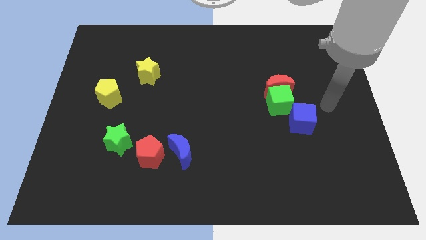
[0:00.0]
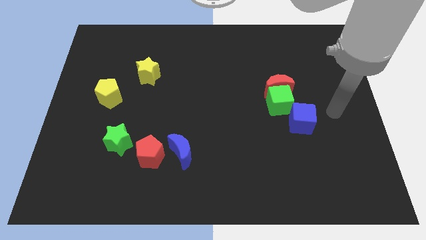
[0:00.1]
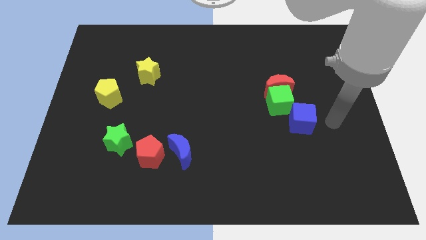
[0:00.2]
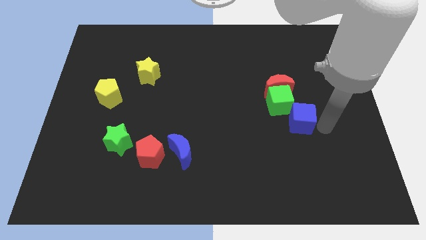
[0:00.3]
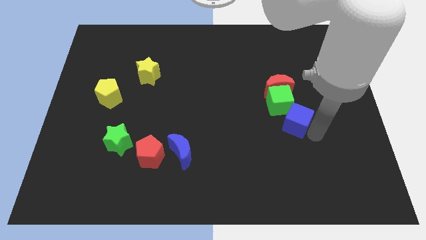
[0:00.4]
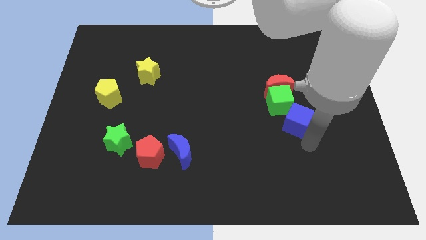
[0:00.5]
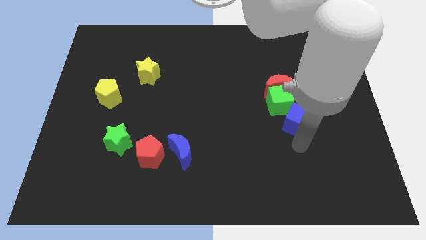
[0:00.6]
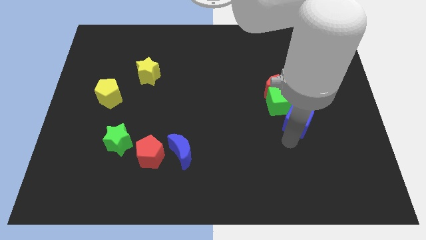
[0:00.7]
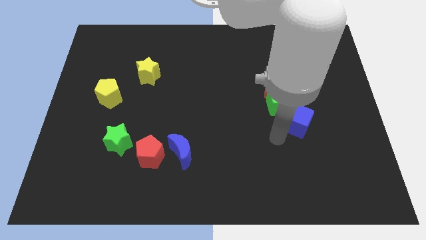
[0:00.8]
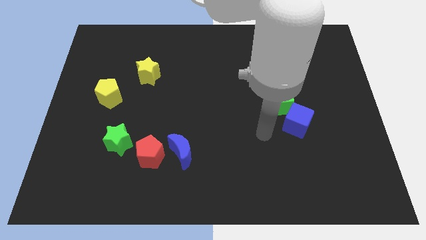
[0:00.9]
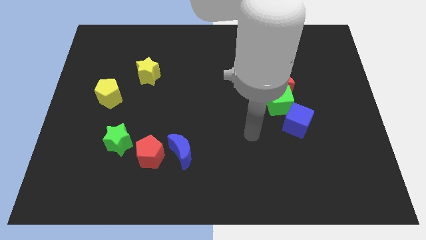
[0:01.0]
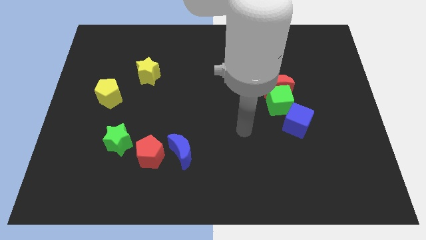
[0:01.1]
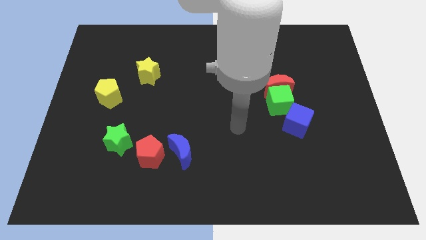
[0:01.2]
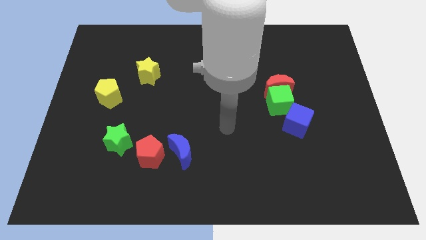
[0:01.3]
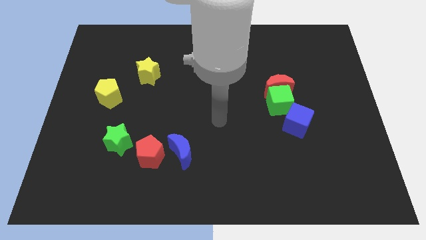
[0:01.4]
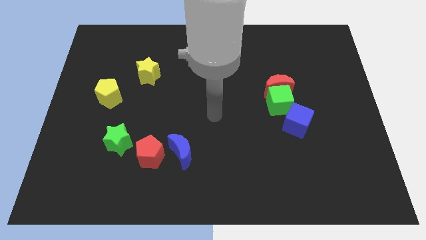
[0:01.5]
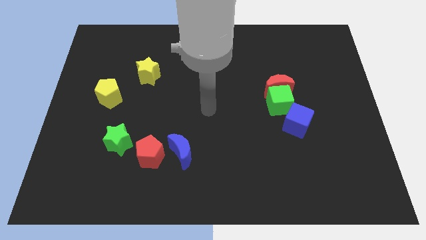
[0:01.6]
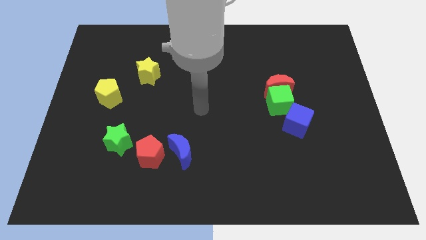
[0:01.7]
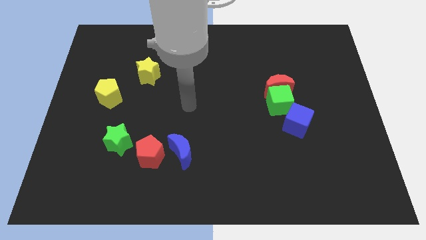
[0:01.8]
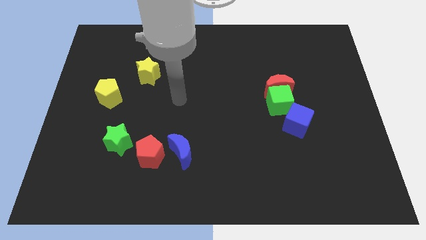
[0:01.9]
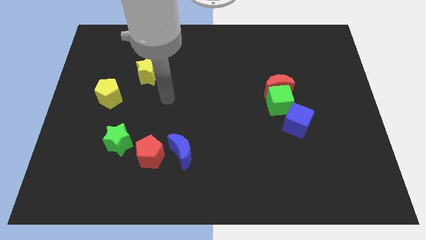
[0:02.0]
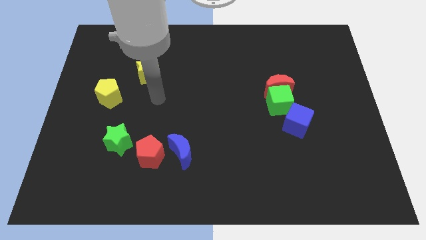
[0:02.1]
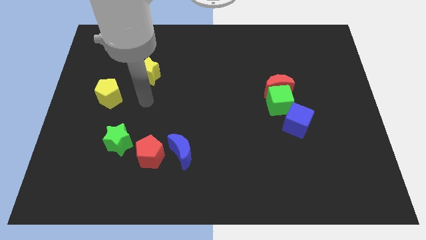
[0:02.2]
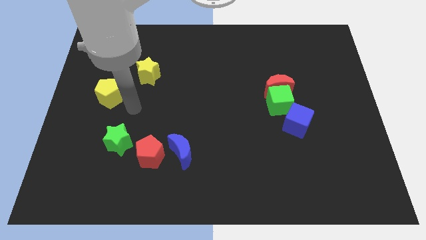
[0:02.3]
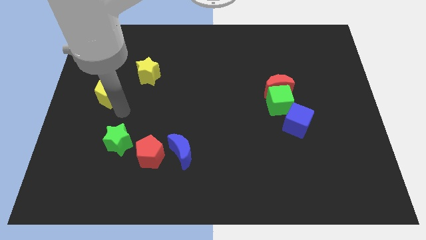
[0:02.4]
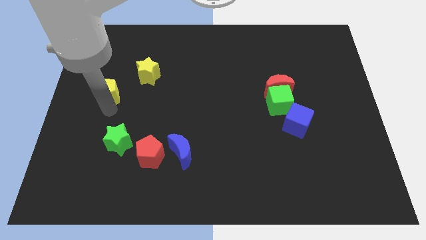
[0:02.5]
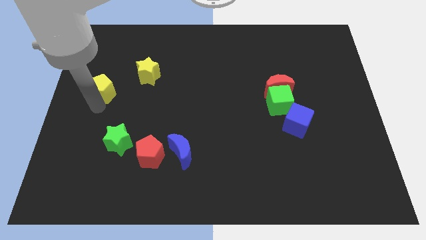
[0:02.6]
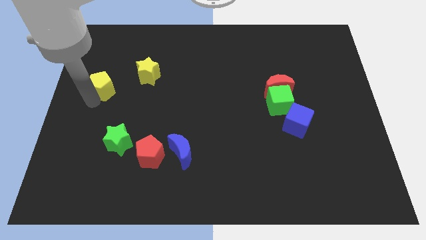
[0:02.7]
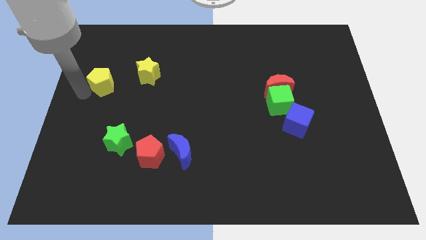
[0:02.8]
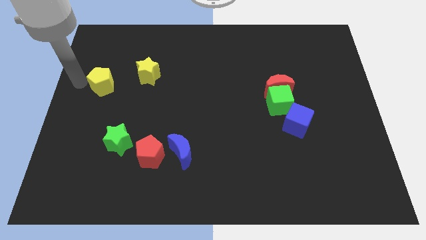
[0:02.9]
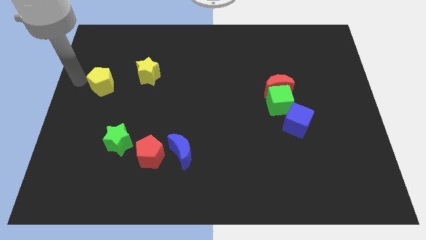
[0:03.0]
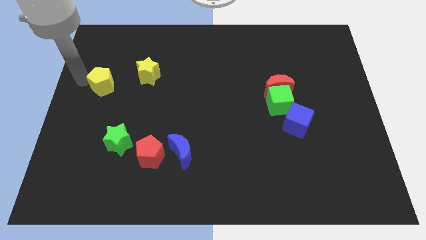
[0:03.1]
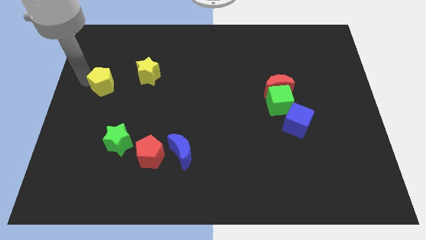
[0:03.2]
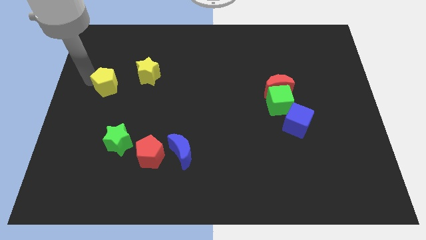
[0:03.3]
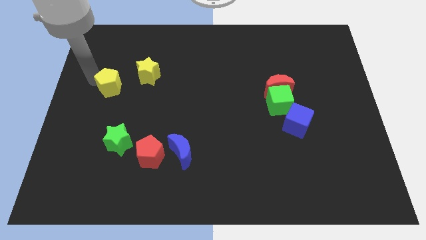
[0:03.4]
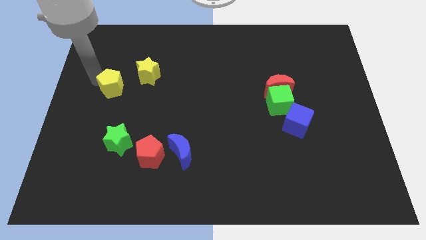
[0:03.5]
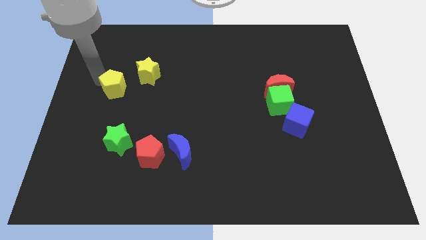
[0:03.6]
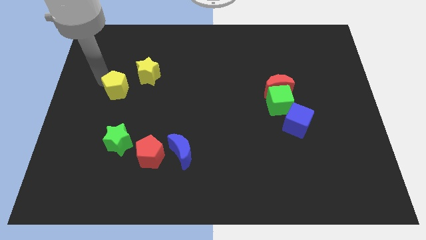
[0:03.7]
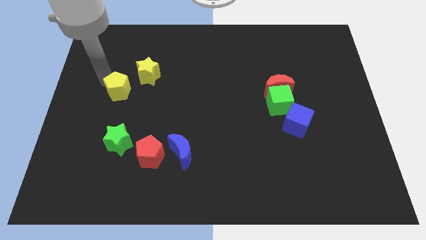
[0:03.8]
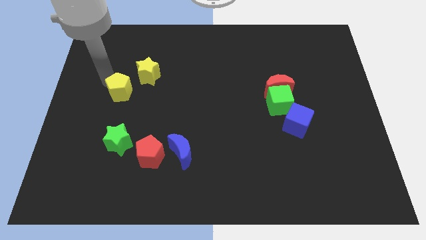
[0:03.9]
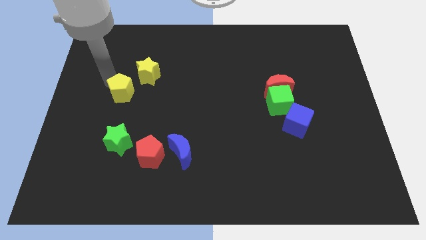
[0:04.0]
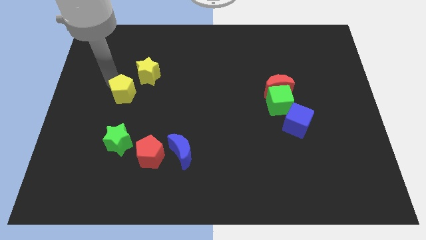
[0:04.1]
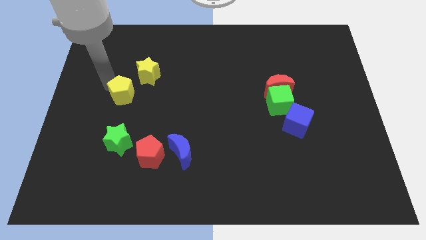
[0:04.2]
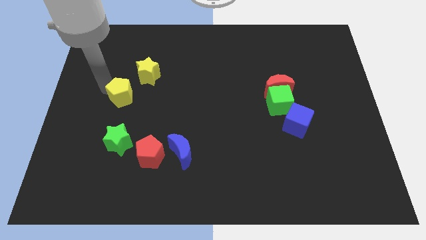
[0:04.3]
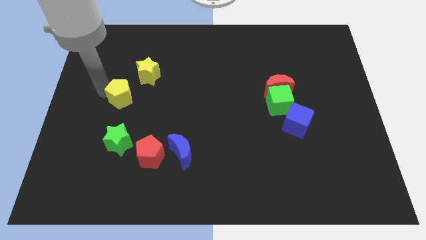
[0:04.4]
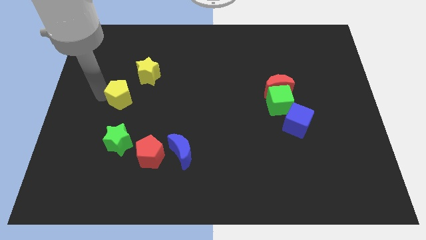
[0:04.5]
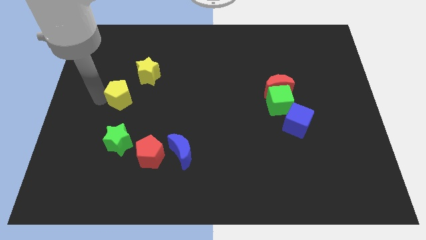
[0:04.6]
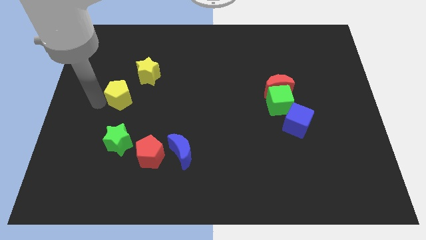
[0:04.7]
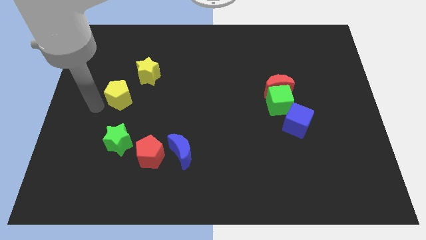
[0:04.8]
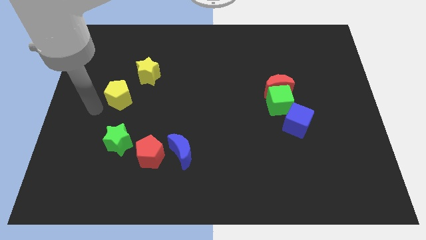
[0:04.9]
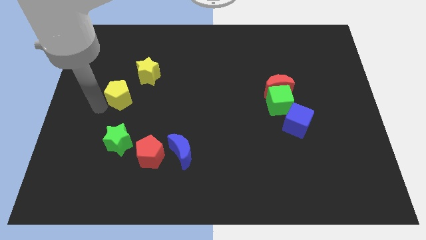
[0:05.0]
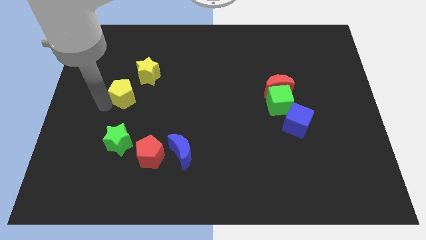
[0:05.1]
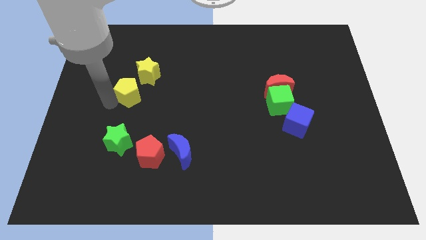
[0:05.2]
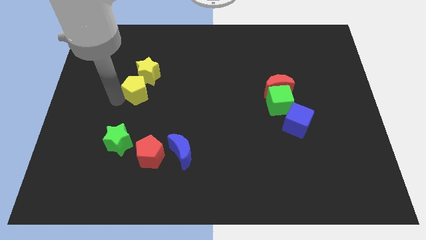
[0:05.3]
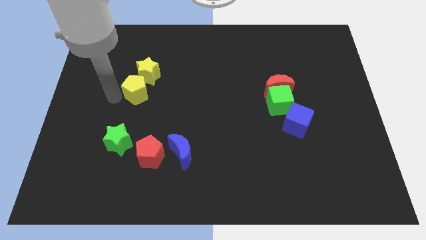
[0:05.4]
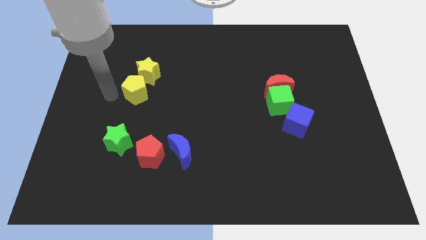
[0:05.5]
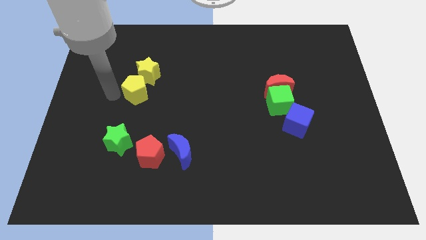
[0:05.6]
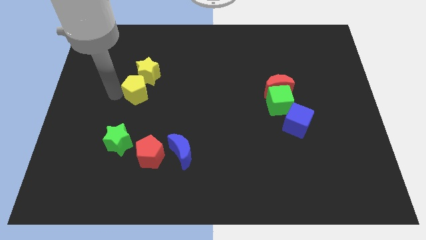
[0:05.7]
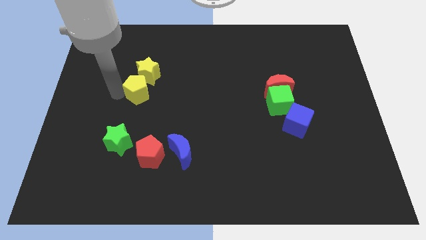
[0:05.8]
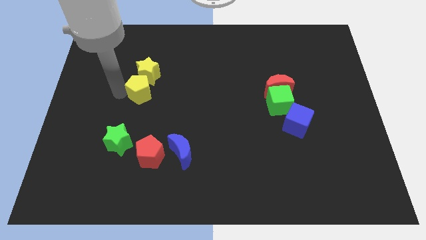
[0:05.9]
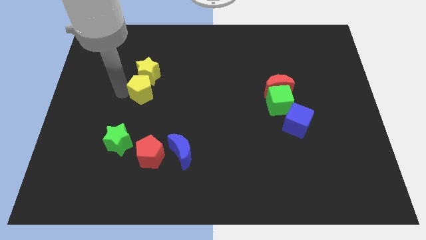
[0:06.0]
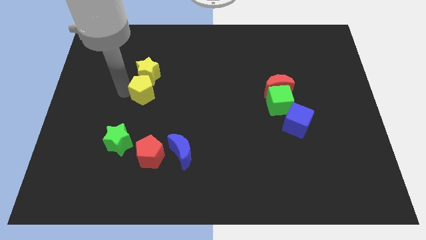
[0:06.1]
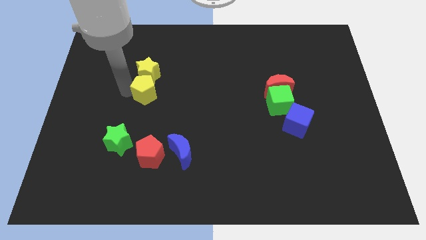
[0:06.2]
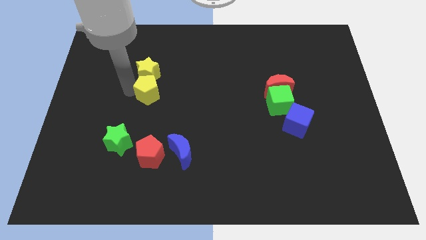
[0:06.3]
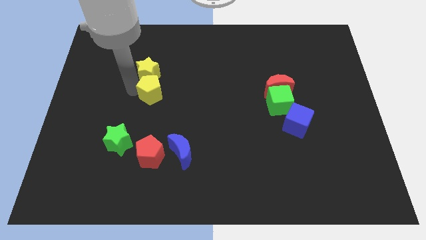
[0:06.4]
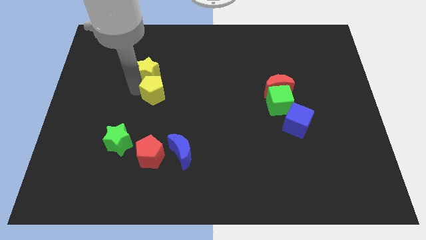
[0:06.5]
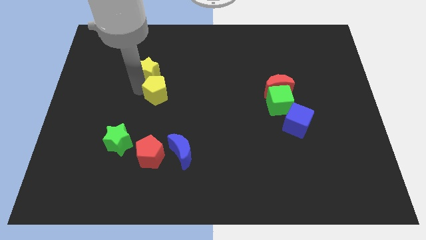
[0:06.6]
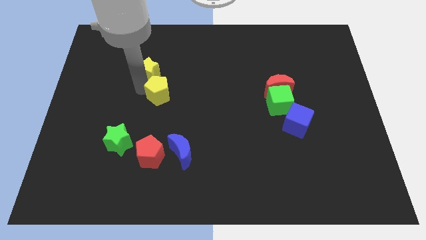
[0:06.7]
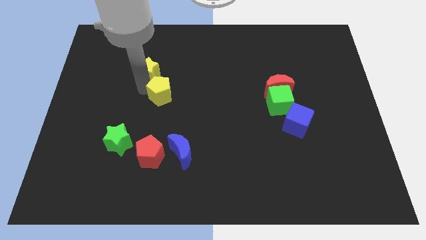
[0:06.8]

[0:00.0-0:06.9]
move the yellow pentagon to the center of the board
